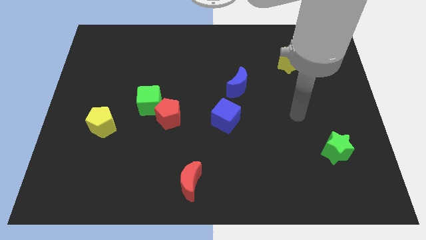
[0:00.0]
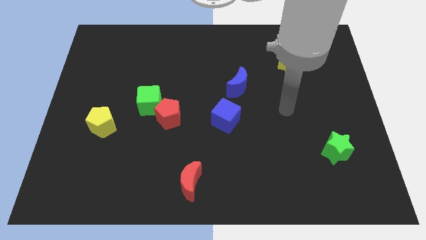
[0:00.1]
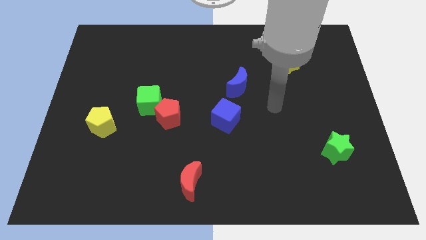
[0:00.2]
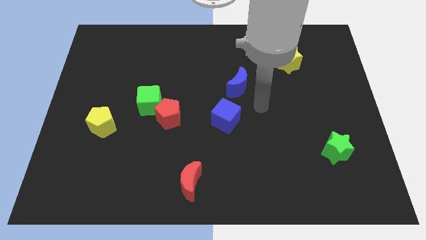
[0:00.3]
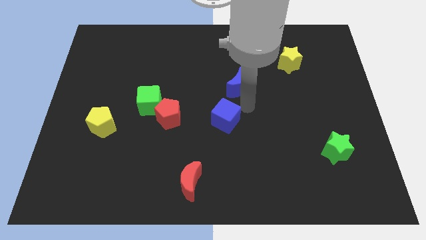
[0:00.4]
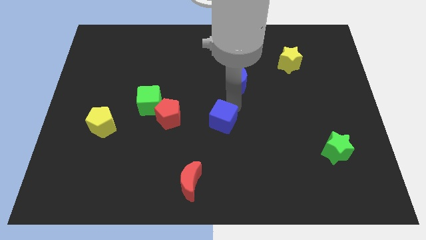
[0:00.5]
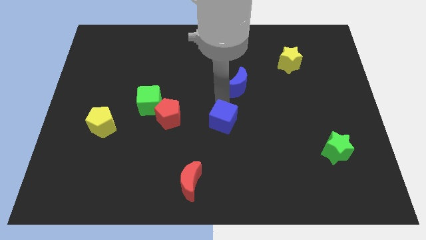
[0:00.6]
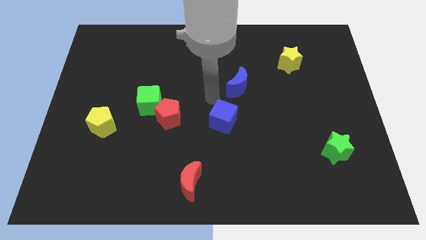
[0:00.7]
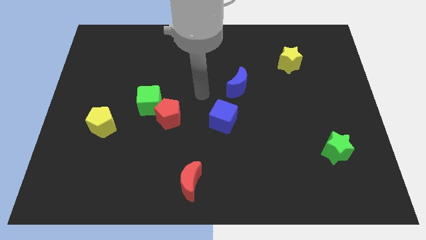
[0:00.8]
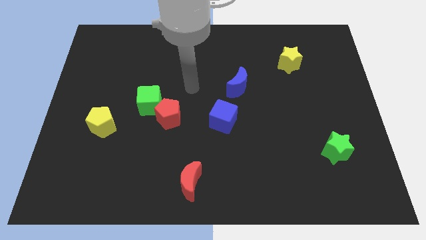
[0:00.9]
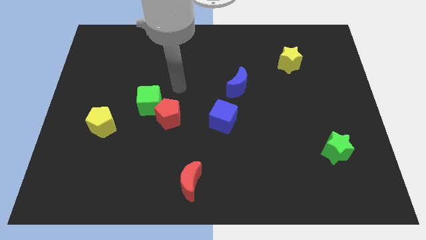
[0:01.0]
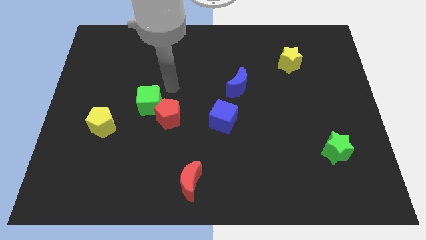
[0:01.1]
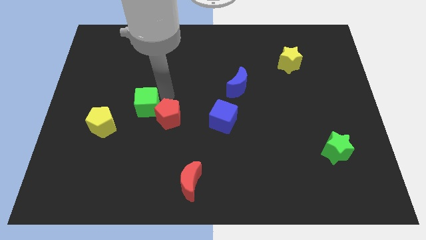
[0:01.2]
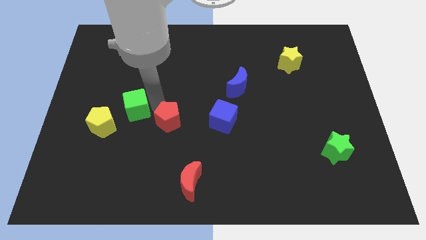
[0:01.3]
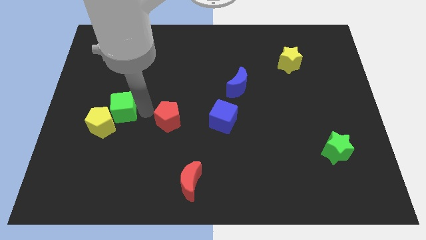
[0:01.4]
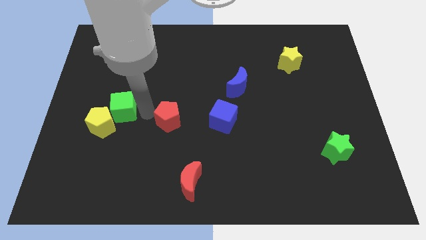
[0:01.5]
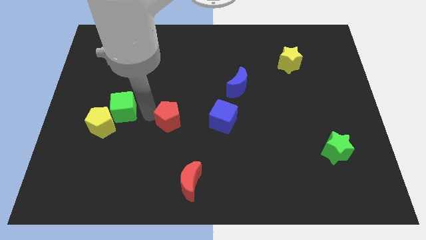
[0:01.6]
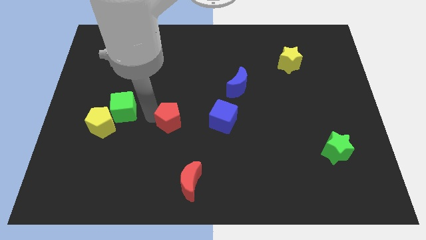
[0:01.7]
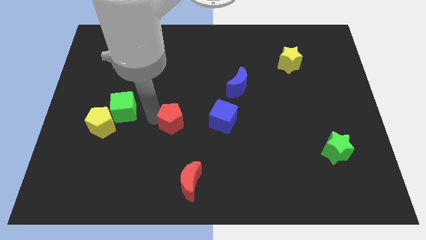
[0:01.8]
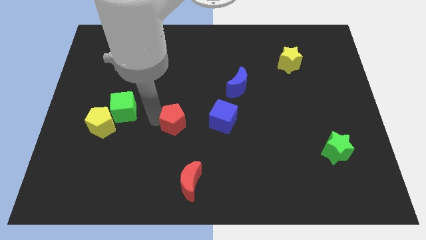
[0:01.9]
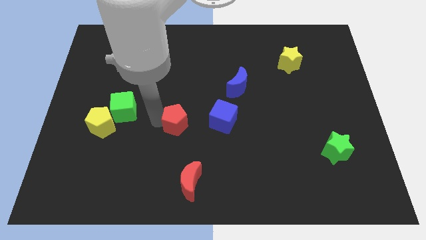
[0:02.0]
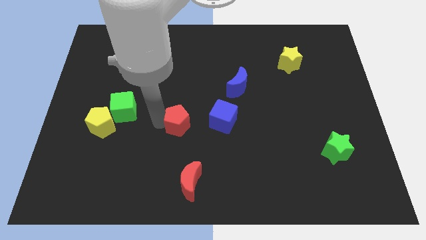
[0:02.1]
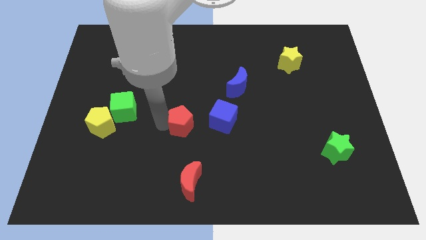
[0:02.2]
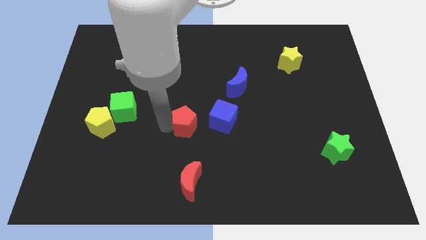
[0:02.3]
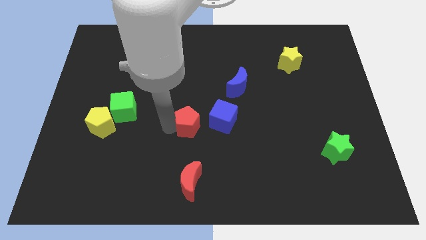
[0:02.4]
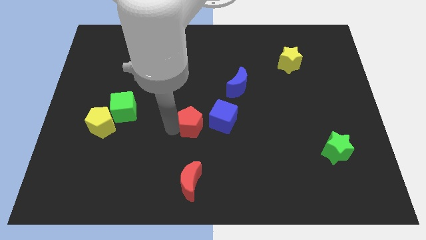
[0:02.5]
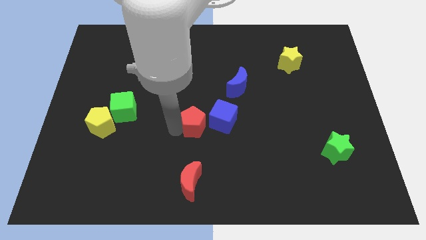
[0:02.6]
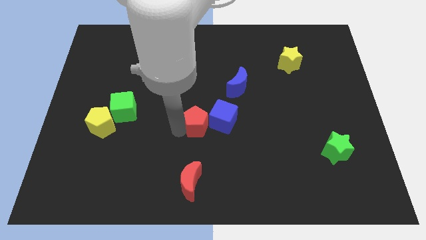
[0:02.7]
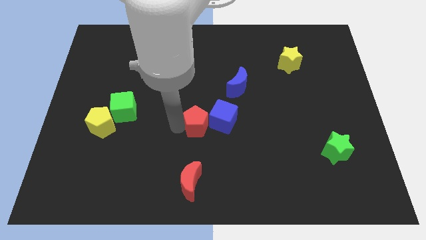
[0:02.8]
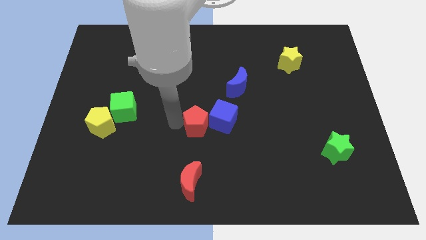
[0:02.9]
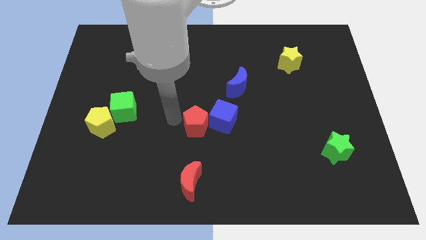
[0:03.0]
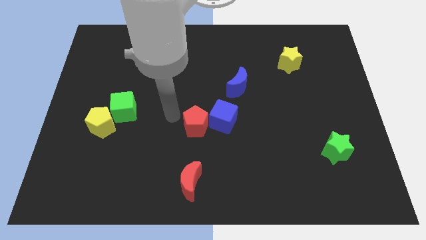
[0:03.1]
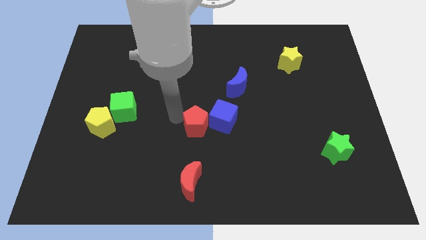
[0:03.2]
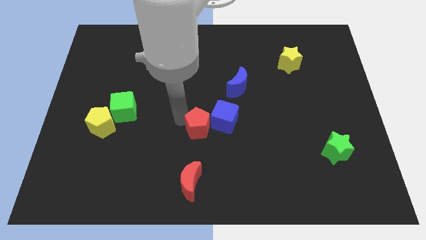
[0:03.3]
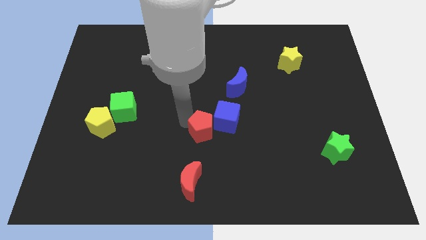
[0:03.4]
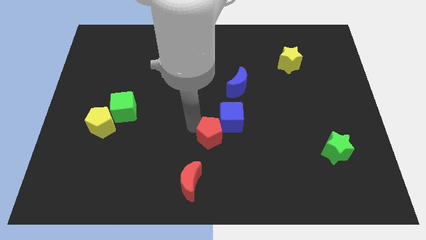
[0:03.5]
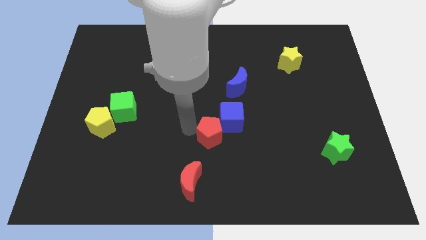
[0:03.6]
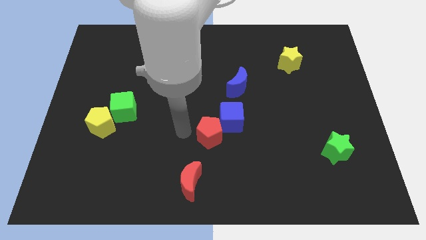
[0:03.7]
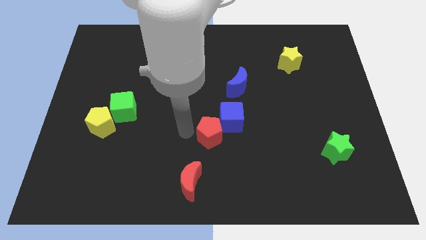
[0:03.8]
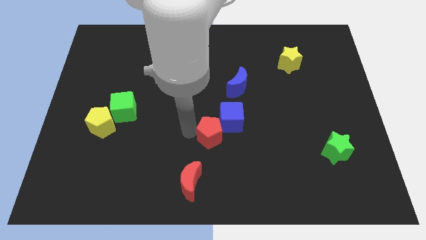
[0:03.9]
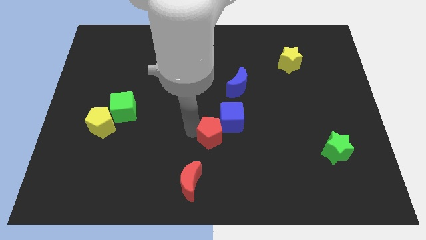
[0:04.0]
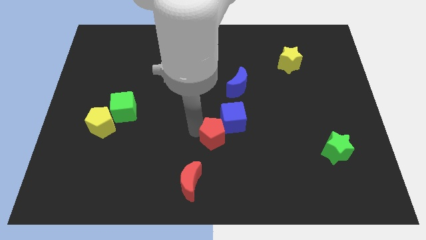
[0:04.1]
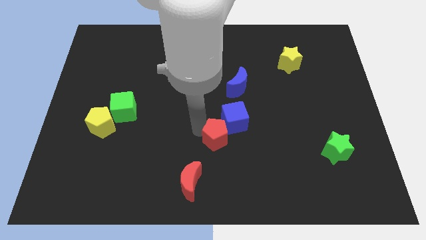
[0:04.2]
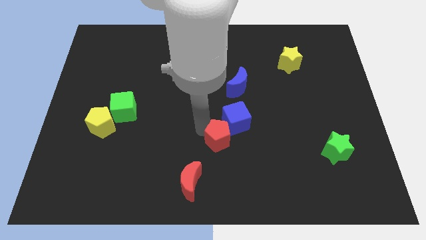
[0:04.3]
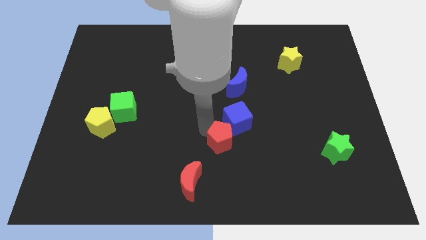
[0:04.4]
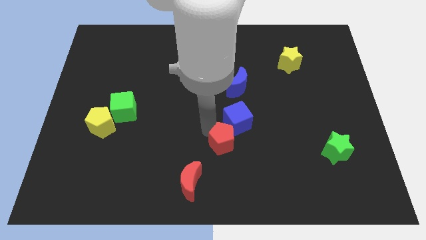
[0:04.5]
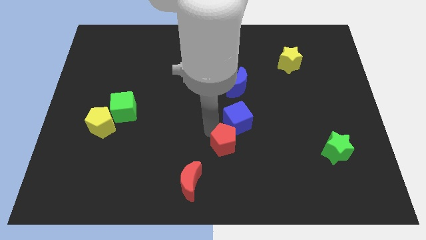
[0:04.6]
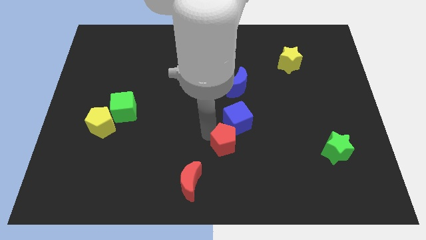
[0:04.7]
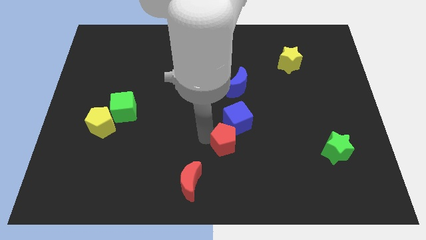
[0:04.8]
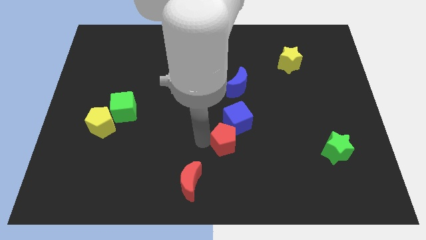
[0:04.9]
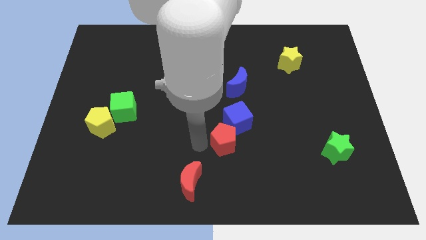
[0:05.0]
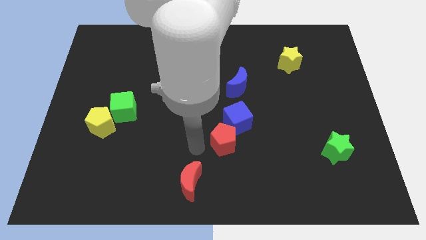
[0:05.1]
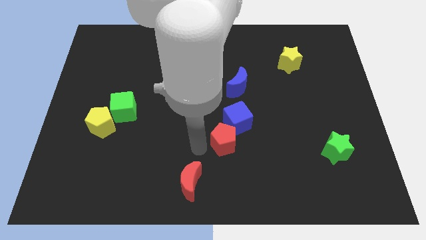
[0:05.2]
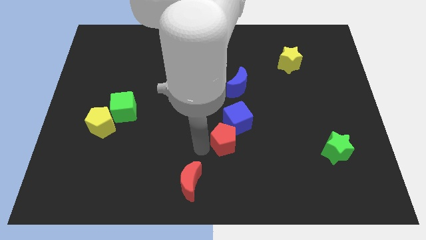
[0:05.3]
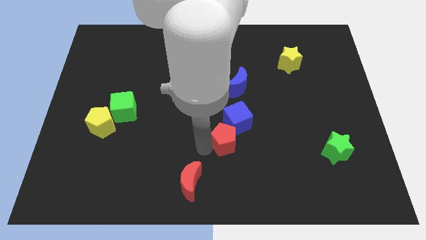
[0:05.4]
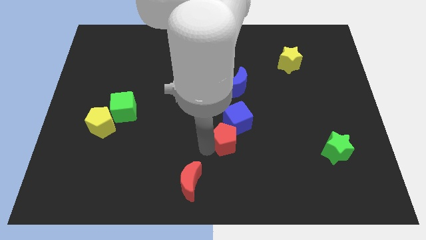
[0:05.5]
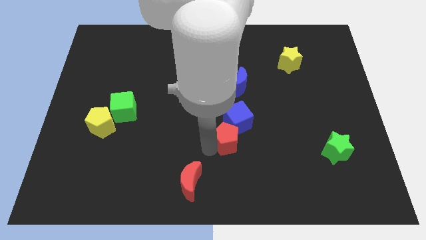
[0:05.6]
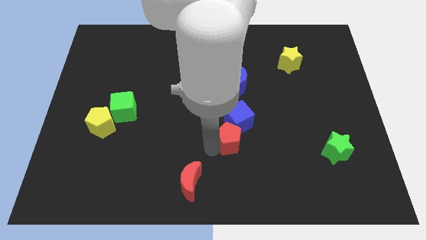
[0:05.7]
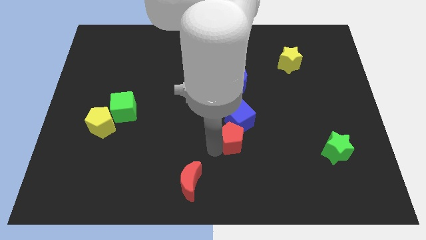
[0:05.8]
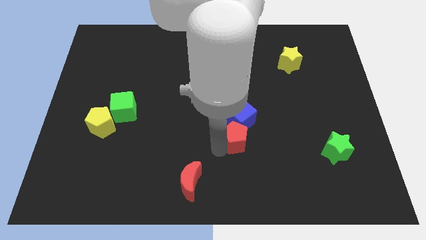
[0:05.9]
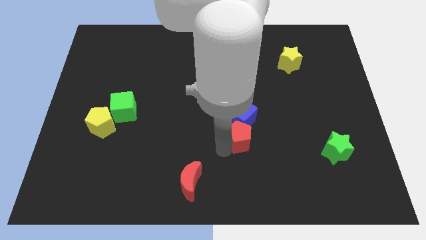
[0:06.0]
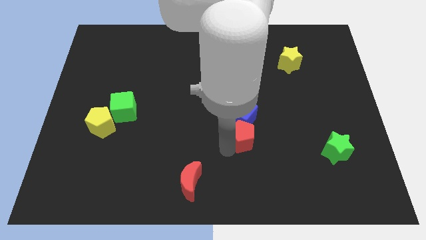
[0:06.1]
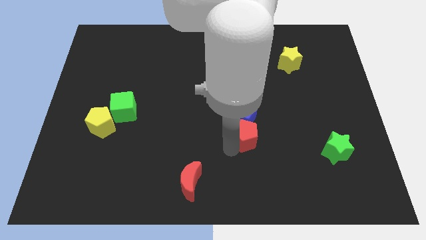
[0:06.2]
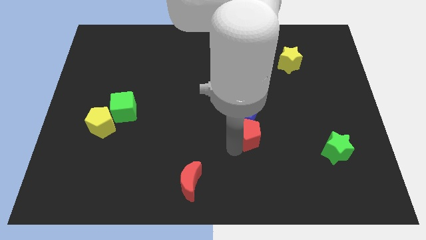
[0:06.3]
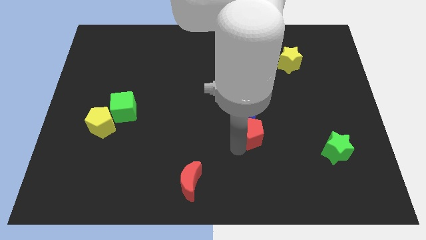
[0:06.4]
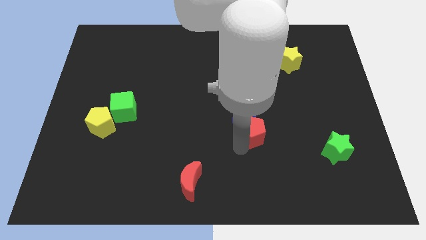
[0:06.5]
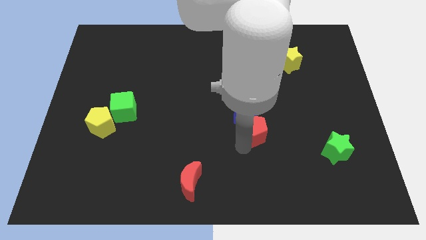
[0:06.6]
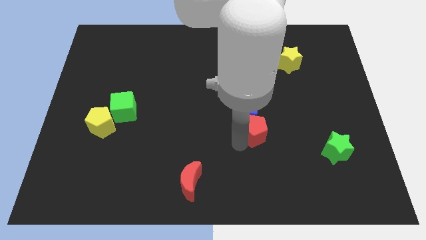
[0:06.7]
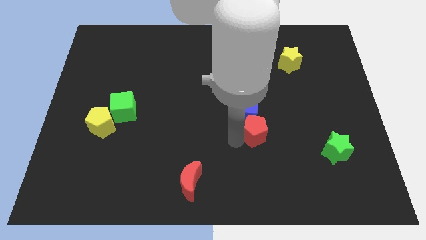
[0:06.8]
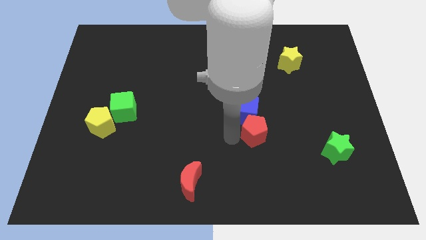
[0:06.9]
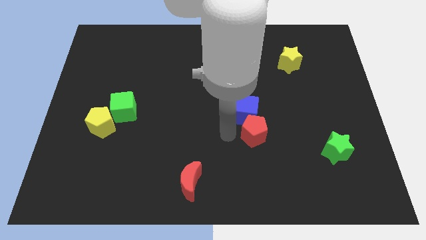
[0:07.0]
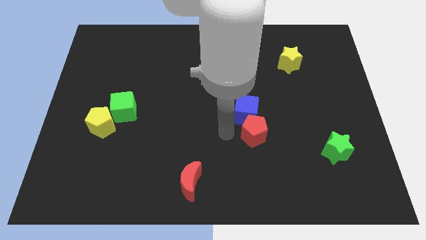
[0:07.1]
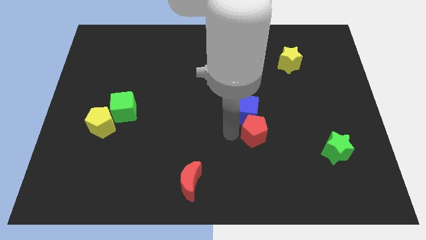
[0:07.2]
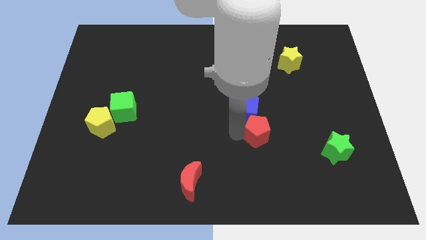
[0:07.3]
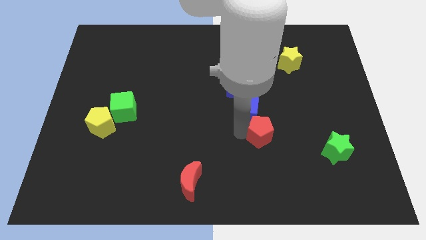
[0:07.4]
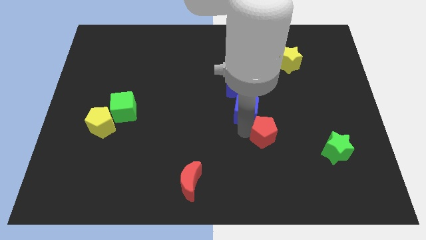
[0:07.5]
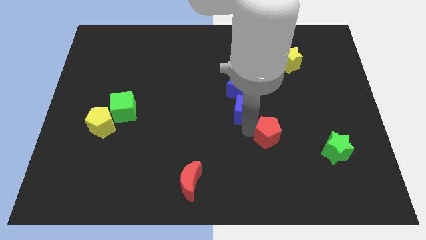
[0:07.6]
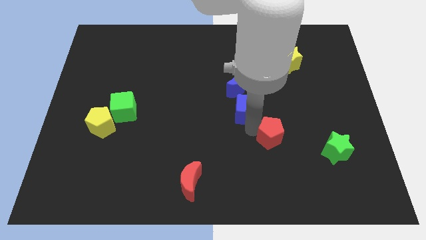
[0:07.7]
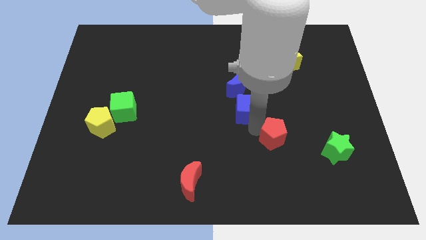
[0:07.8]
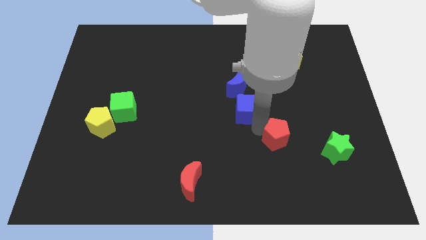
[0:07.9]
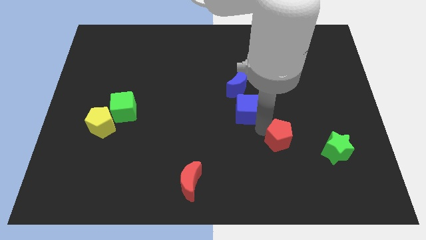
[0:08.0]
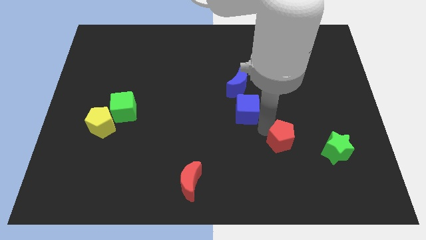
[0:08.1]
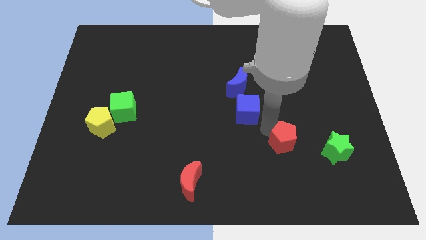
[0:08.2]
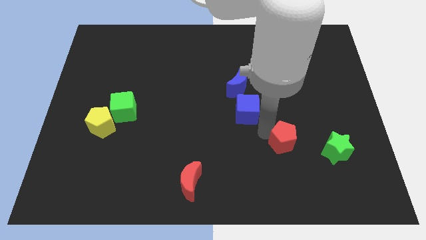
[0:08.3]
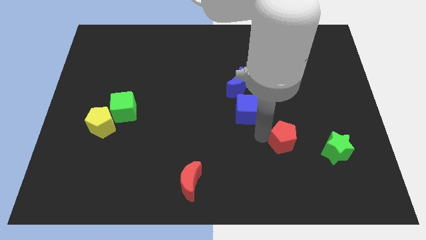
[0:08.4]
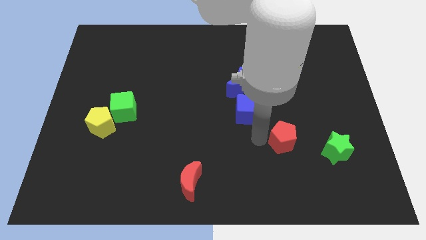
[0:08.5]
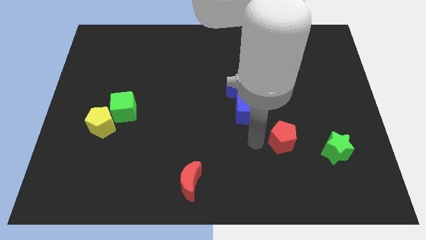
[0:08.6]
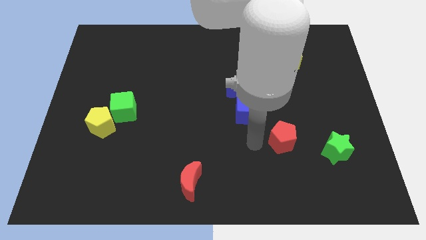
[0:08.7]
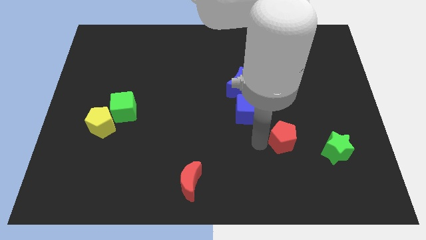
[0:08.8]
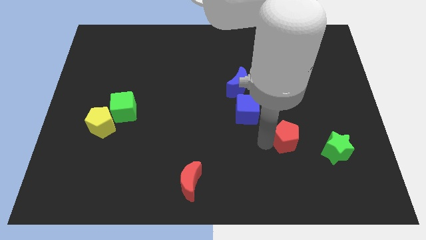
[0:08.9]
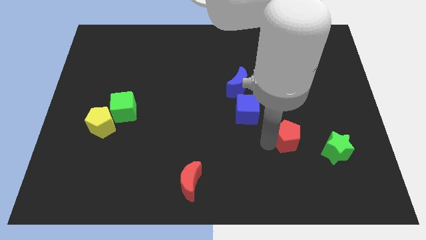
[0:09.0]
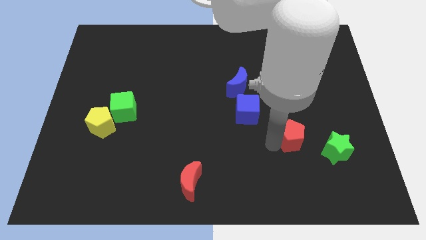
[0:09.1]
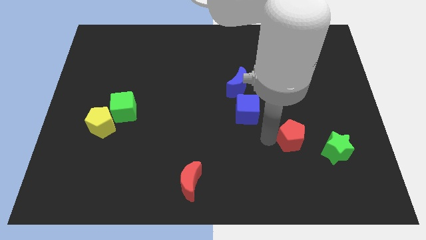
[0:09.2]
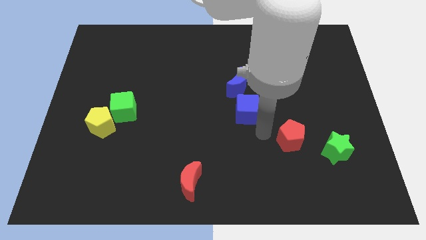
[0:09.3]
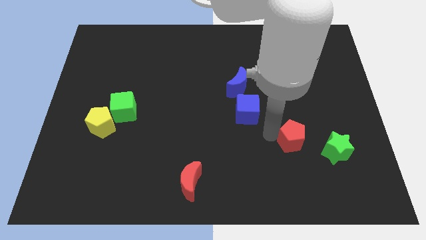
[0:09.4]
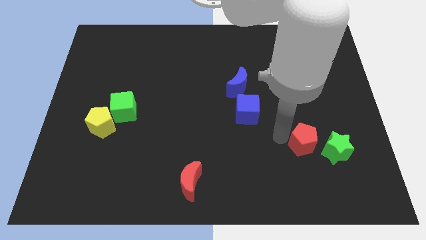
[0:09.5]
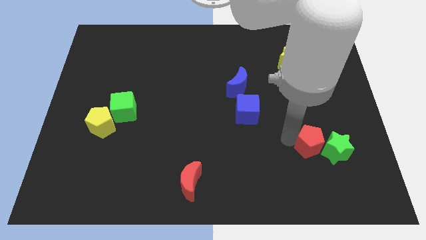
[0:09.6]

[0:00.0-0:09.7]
slide the red pentagon to the green star
